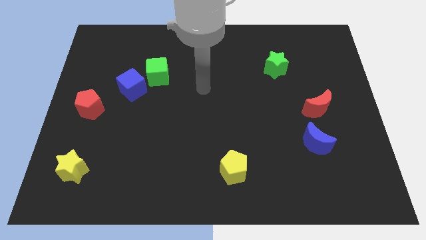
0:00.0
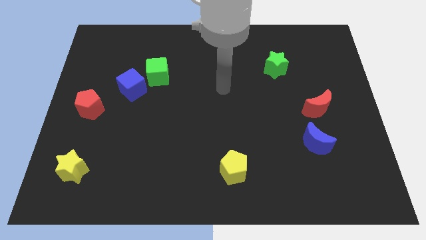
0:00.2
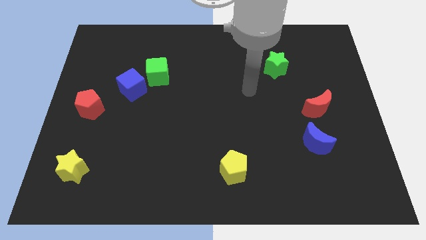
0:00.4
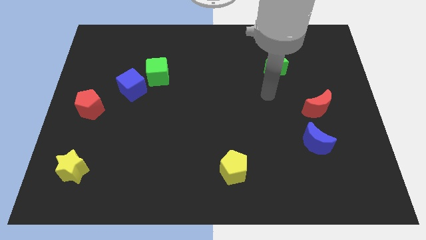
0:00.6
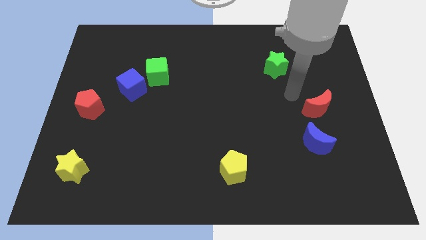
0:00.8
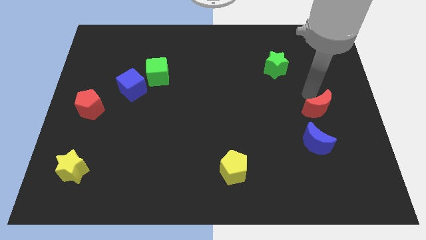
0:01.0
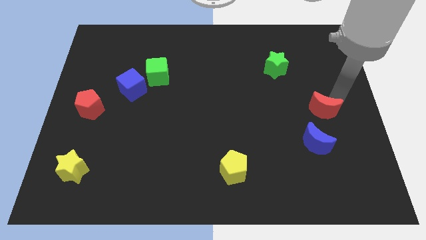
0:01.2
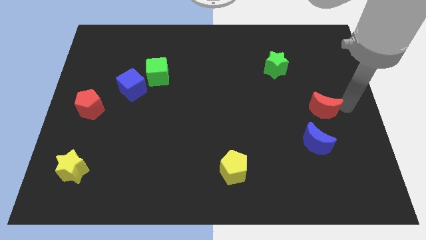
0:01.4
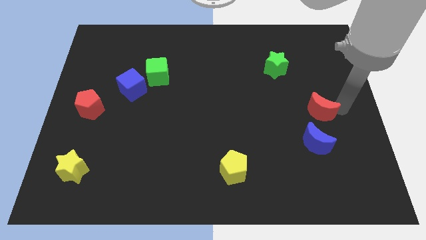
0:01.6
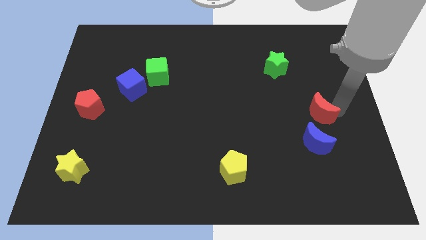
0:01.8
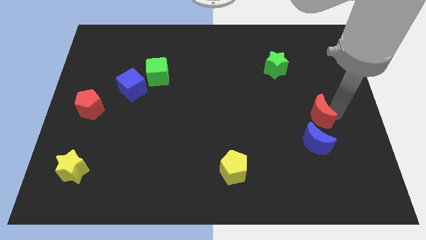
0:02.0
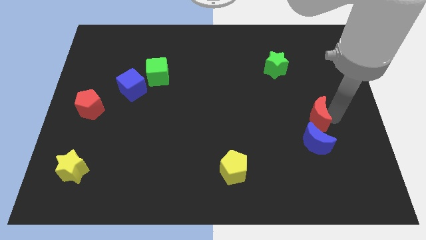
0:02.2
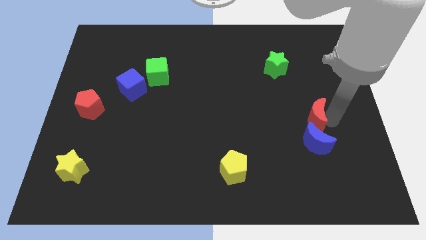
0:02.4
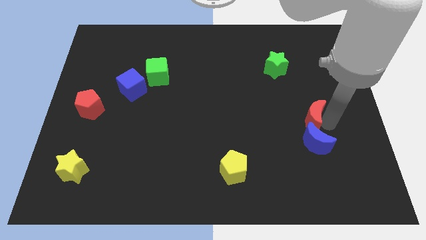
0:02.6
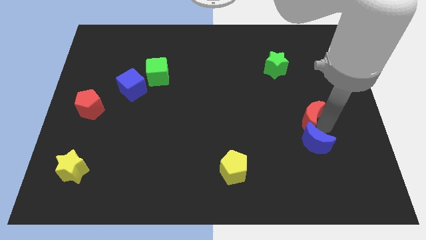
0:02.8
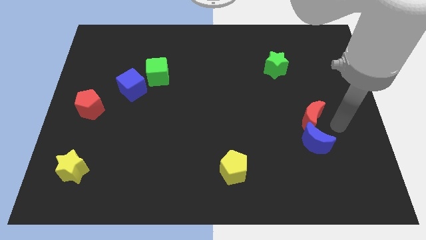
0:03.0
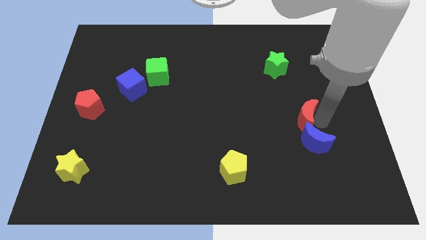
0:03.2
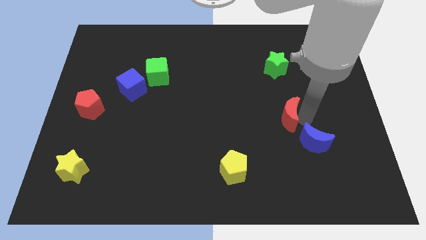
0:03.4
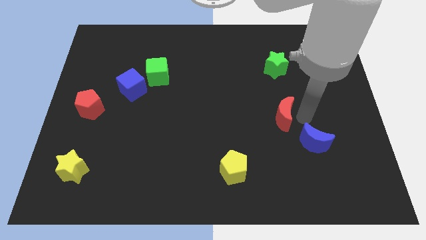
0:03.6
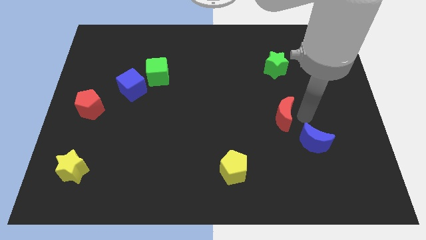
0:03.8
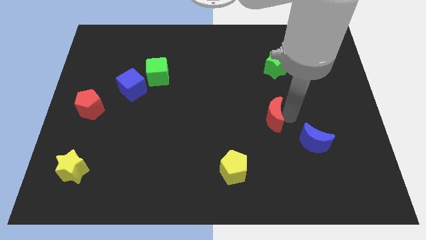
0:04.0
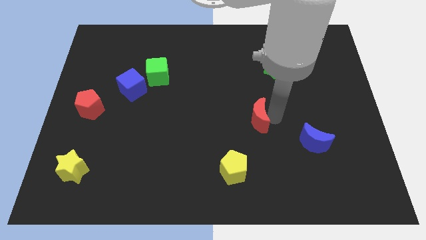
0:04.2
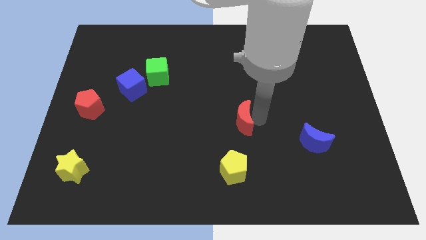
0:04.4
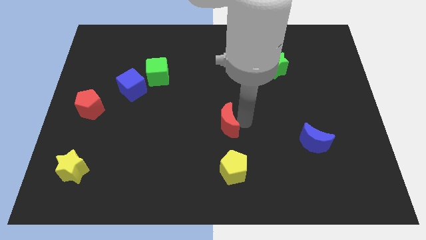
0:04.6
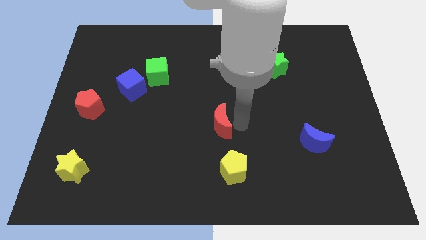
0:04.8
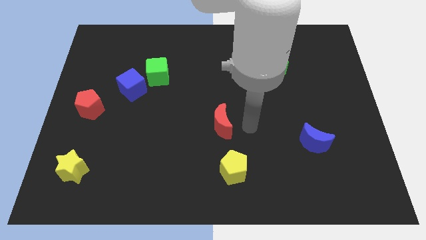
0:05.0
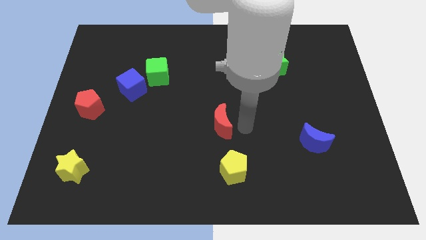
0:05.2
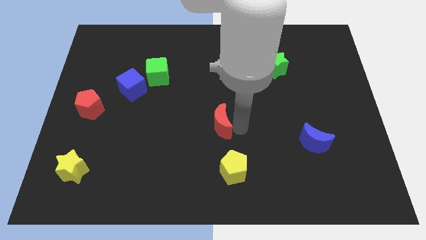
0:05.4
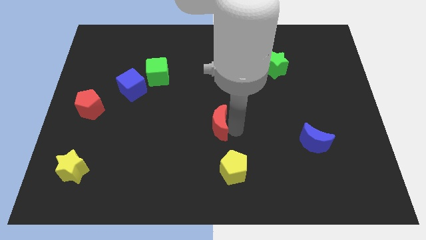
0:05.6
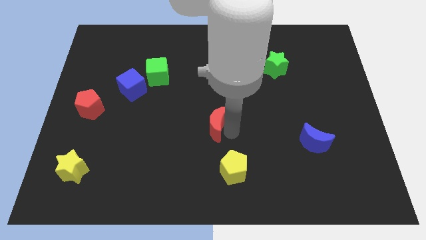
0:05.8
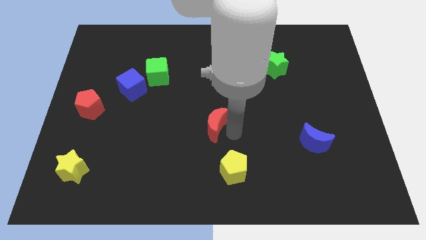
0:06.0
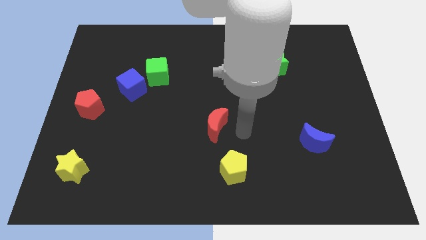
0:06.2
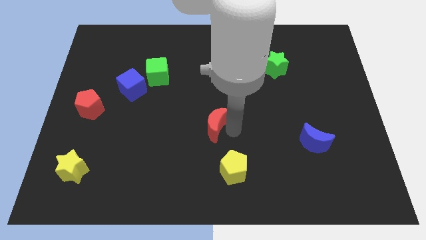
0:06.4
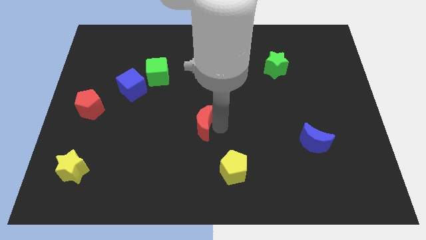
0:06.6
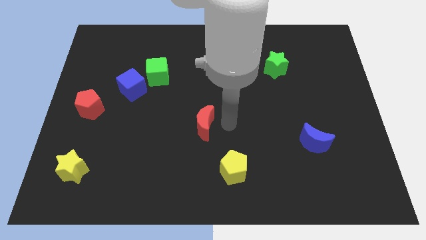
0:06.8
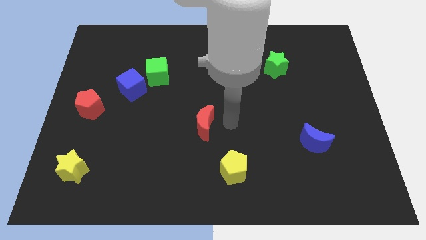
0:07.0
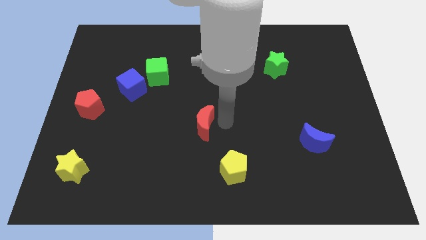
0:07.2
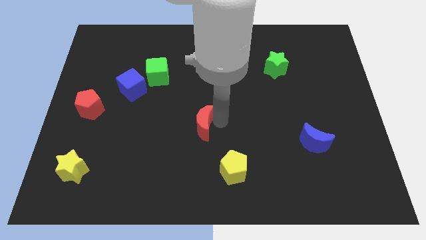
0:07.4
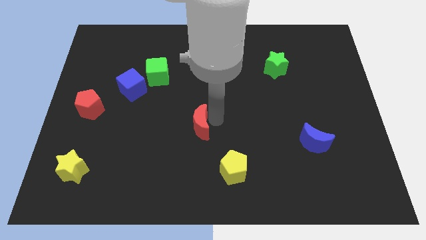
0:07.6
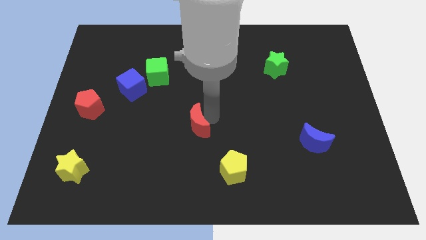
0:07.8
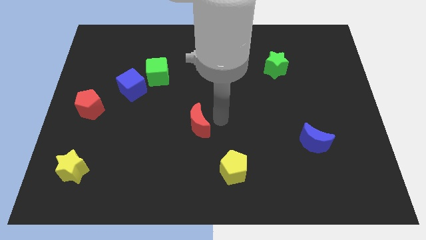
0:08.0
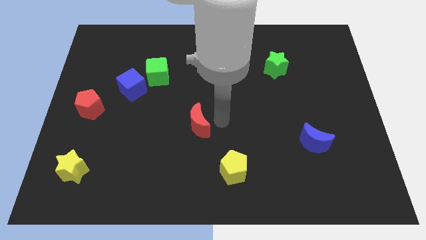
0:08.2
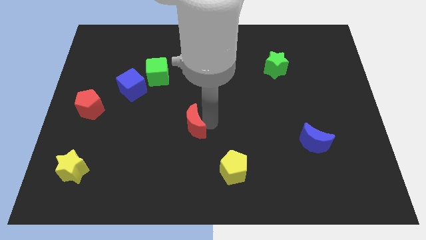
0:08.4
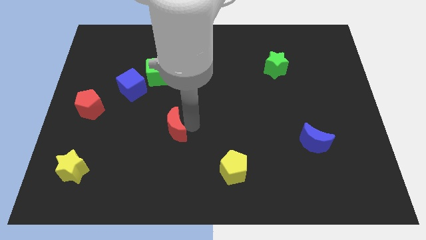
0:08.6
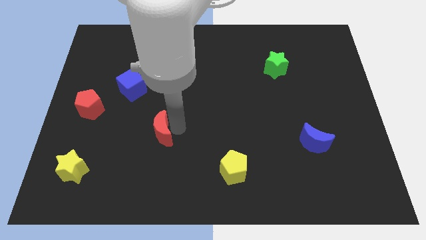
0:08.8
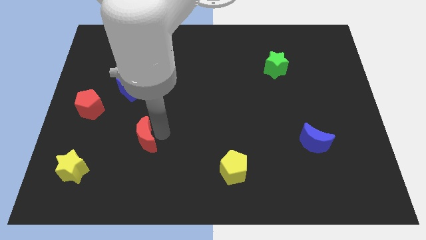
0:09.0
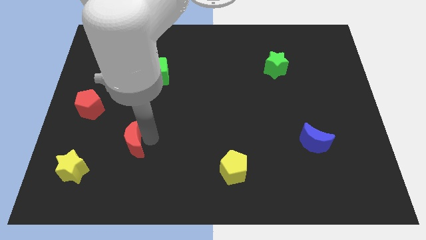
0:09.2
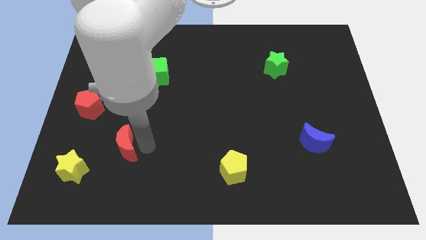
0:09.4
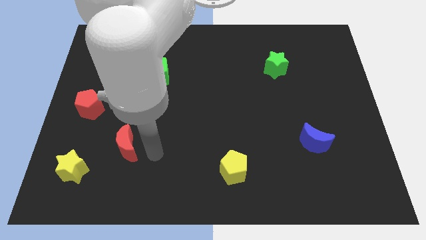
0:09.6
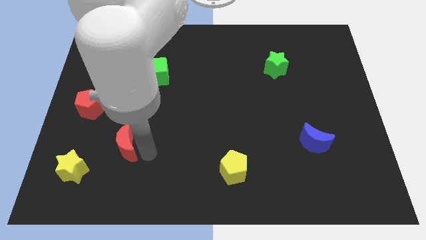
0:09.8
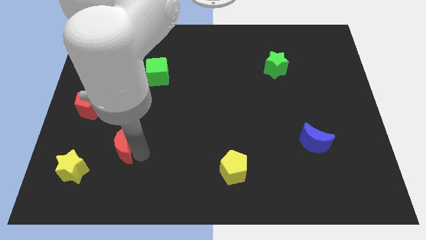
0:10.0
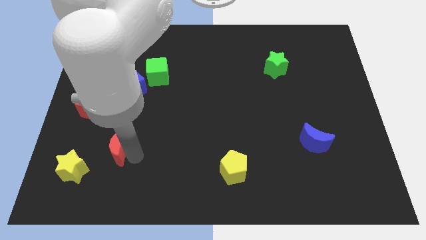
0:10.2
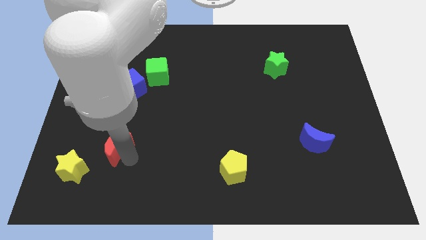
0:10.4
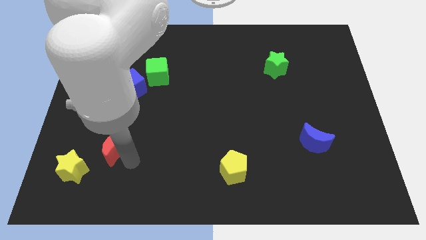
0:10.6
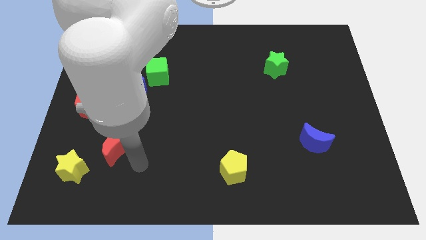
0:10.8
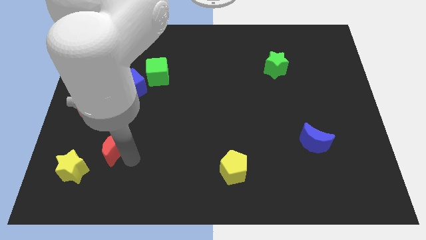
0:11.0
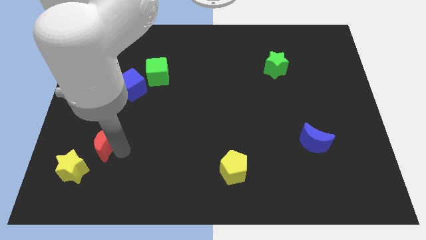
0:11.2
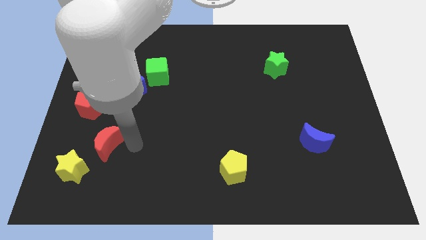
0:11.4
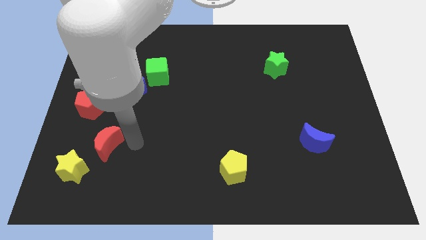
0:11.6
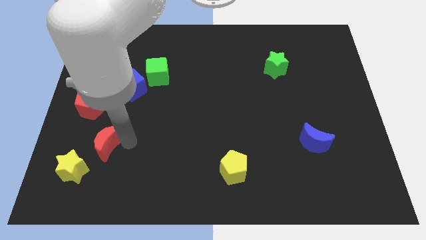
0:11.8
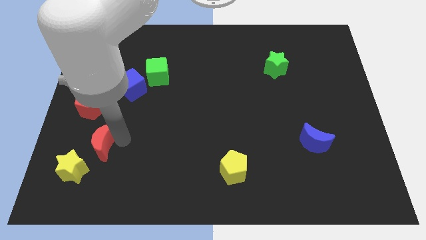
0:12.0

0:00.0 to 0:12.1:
slide the red moon below the red pentagon
